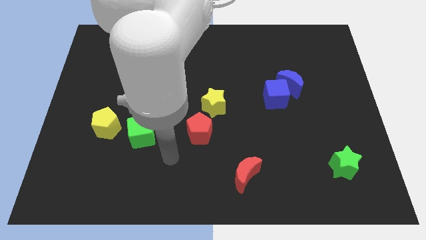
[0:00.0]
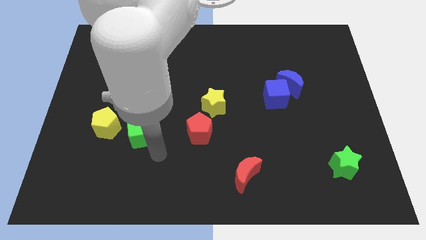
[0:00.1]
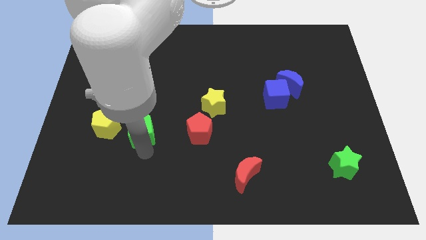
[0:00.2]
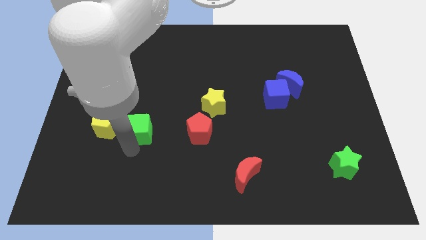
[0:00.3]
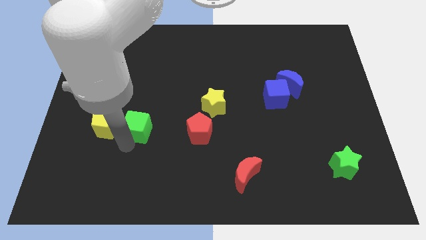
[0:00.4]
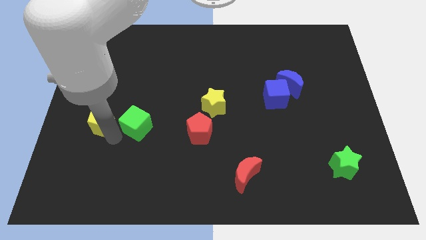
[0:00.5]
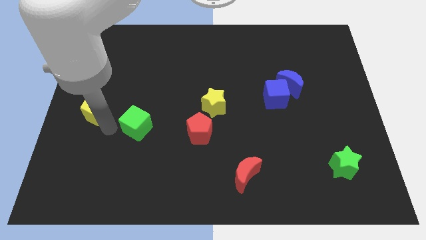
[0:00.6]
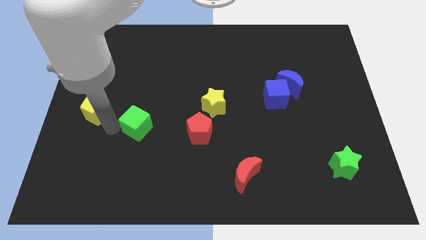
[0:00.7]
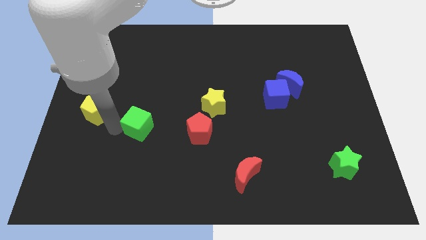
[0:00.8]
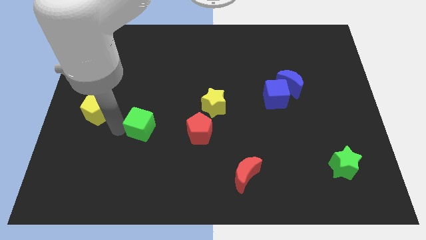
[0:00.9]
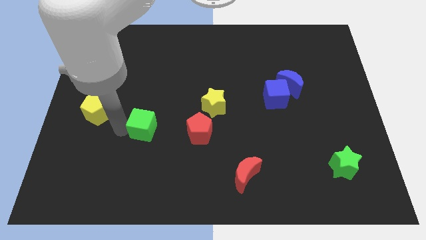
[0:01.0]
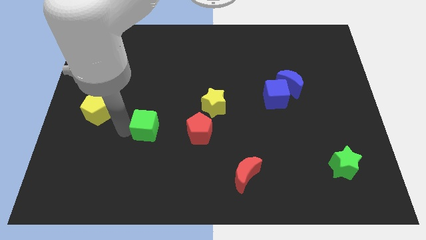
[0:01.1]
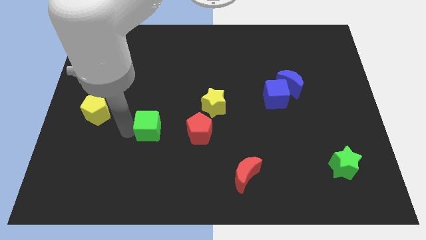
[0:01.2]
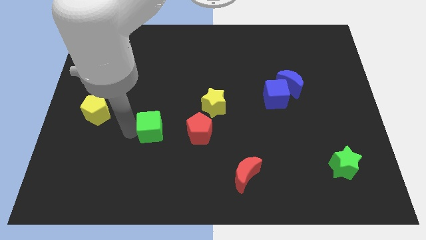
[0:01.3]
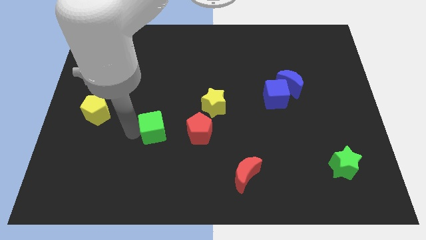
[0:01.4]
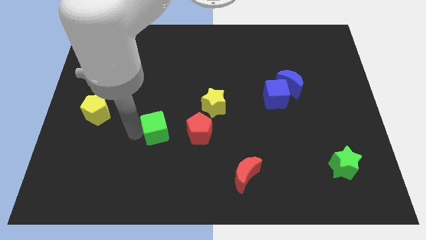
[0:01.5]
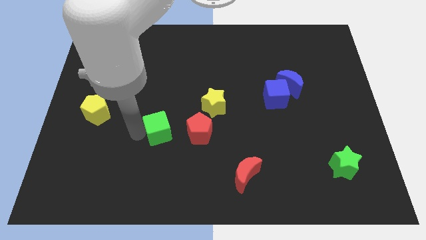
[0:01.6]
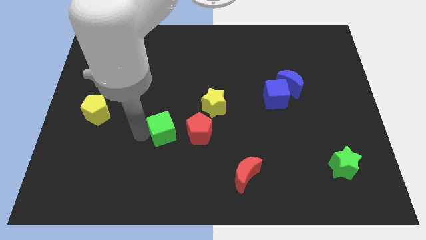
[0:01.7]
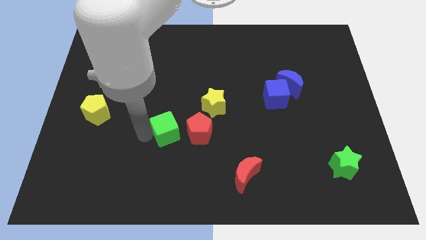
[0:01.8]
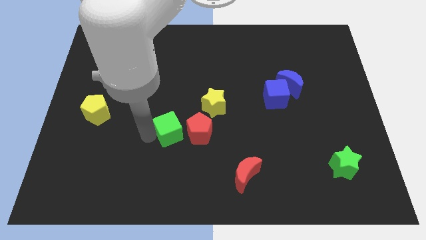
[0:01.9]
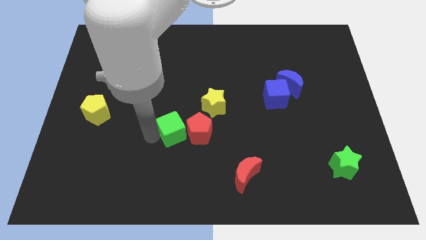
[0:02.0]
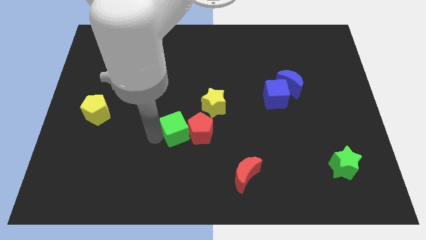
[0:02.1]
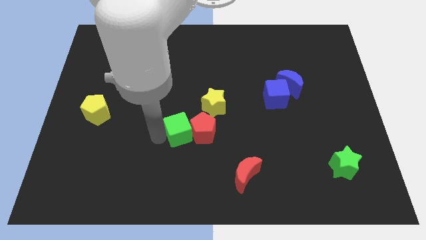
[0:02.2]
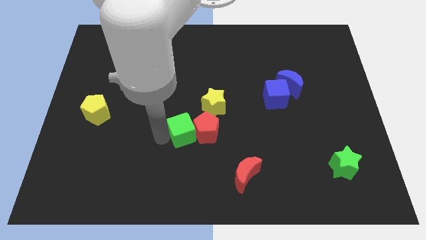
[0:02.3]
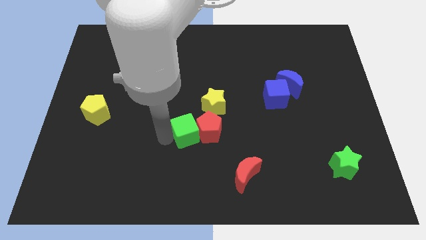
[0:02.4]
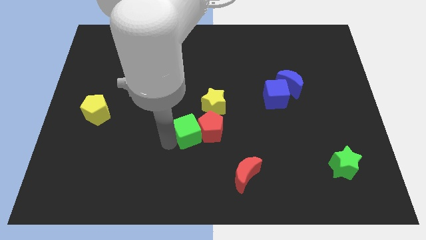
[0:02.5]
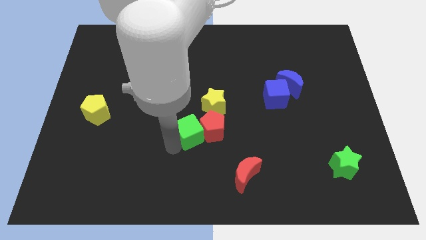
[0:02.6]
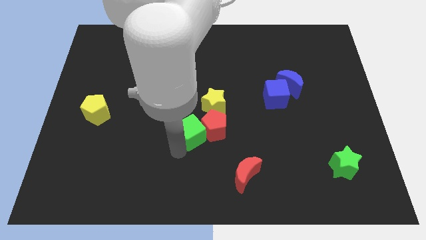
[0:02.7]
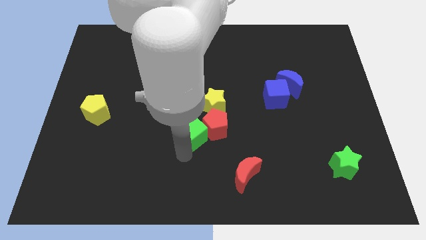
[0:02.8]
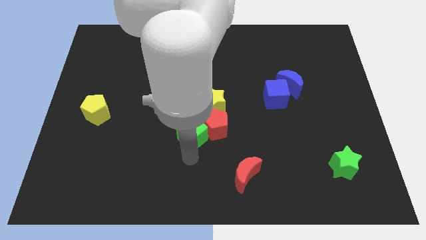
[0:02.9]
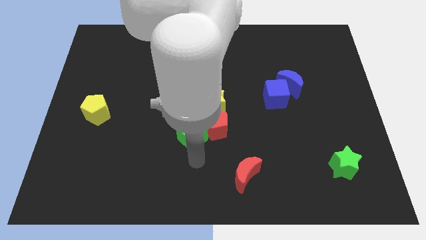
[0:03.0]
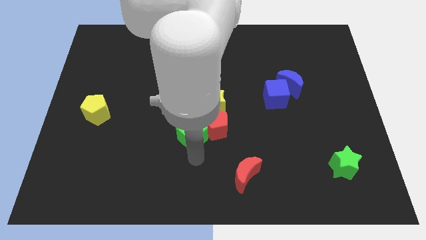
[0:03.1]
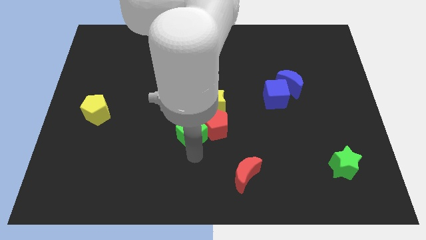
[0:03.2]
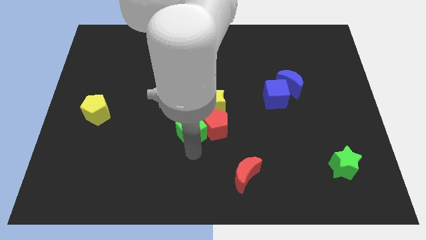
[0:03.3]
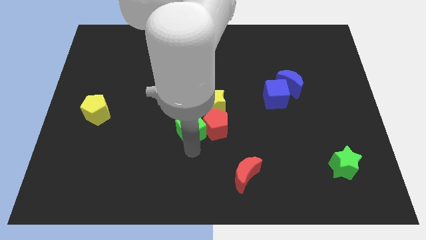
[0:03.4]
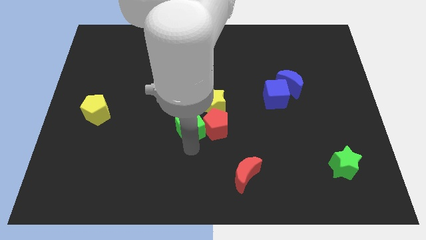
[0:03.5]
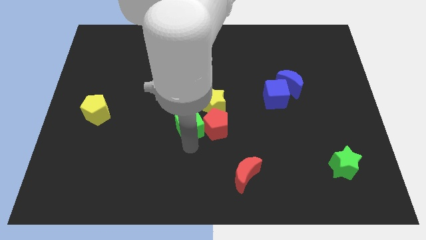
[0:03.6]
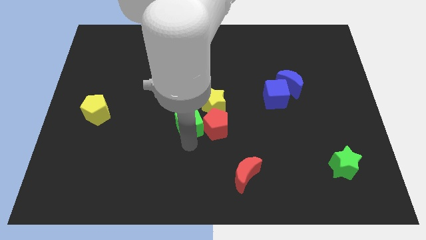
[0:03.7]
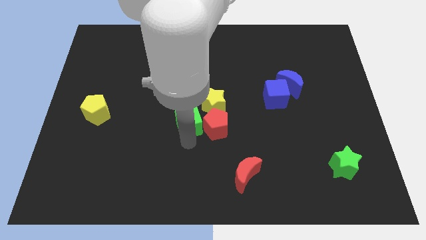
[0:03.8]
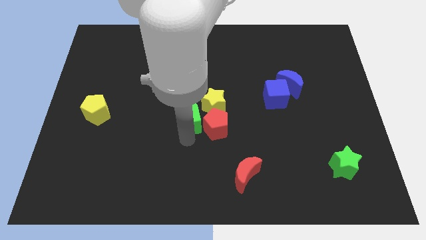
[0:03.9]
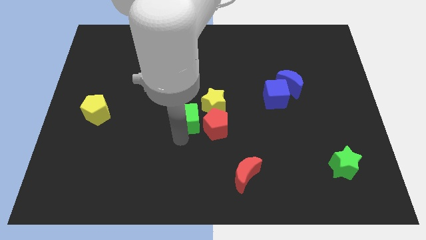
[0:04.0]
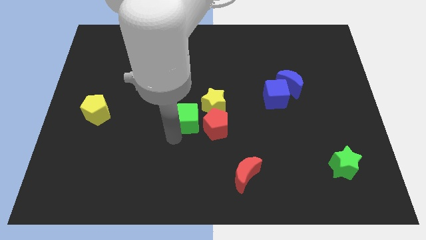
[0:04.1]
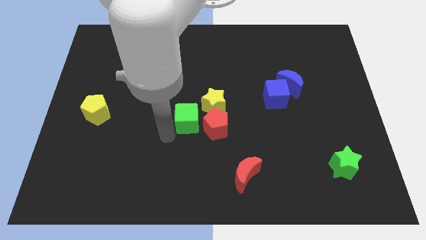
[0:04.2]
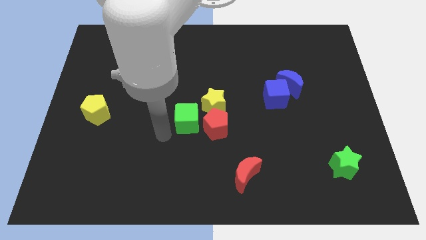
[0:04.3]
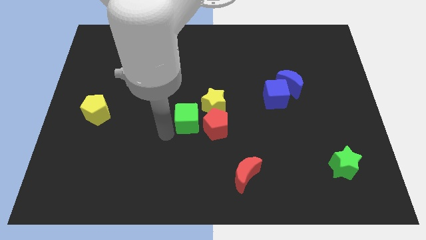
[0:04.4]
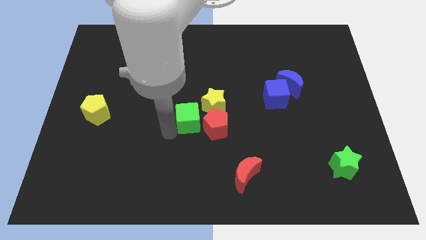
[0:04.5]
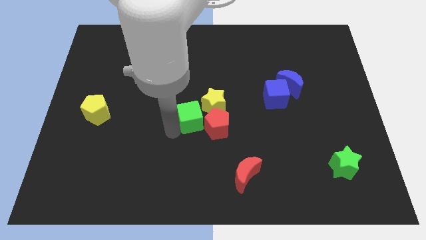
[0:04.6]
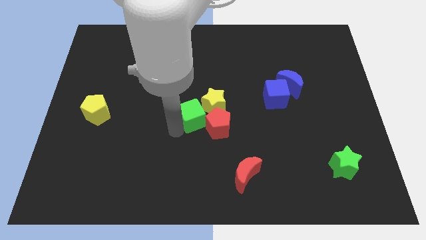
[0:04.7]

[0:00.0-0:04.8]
slide the green cube next to the yellow star

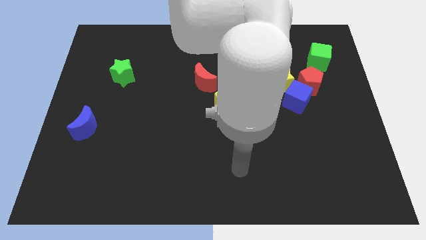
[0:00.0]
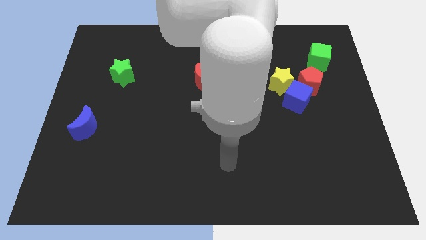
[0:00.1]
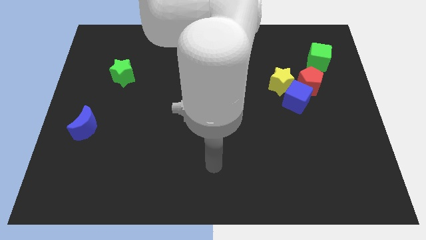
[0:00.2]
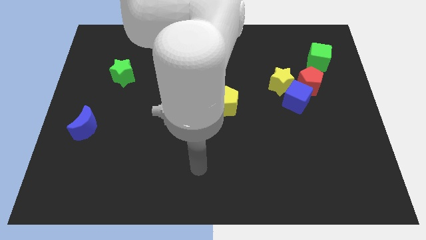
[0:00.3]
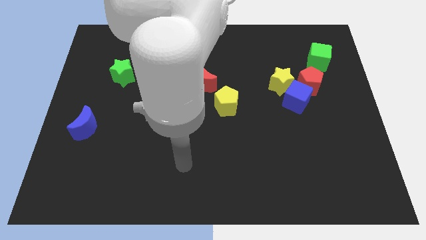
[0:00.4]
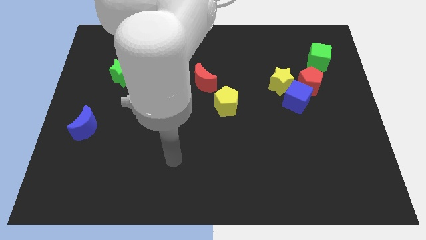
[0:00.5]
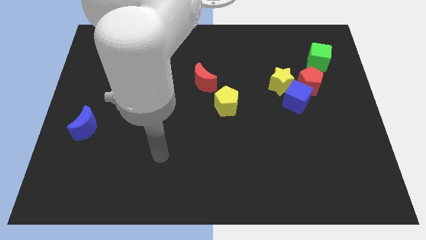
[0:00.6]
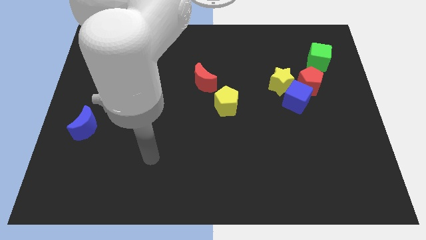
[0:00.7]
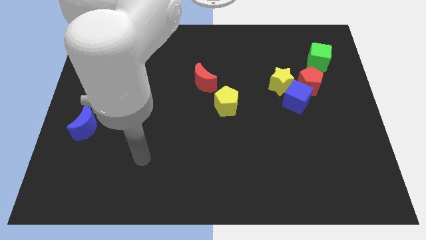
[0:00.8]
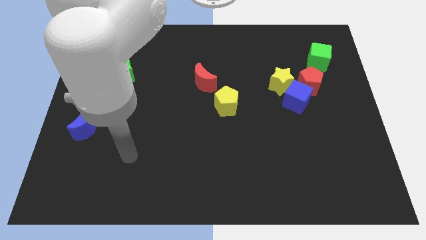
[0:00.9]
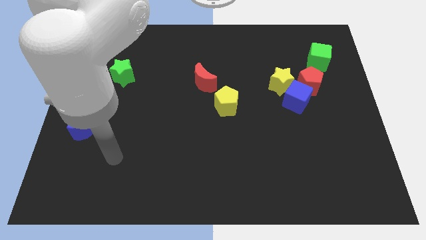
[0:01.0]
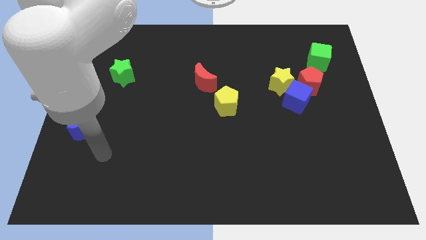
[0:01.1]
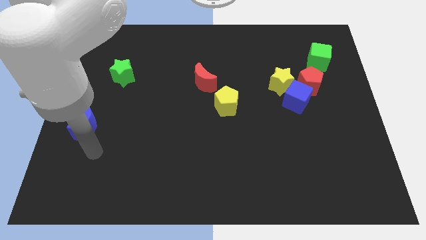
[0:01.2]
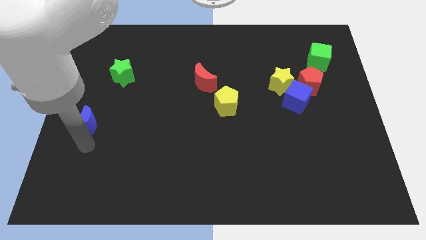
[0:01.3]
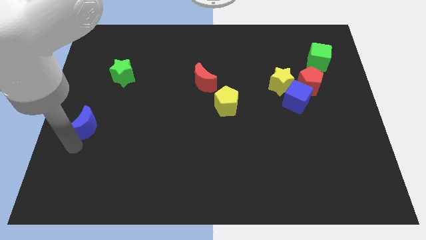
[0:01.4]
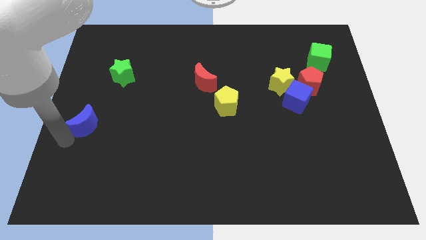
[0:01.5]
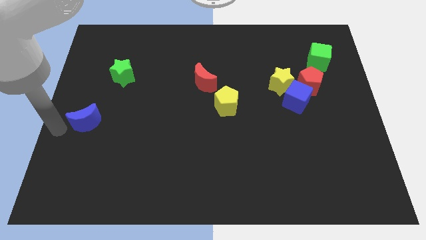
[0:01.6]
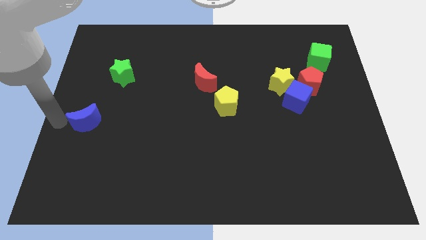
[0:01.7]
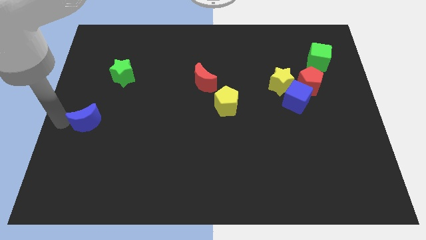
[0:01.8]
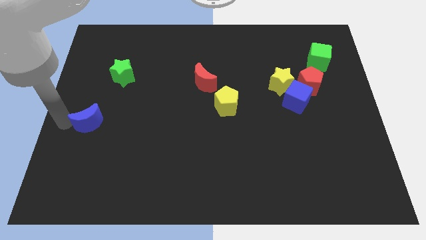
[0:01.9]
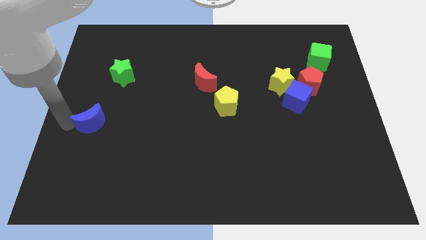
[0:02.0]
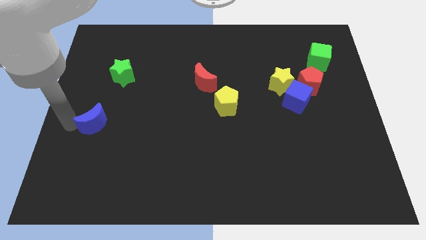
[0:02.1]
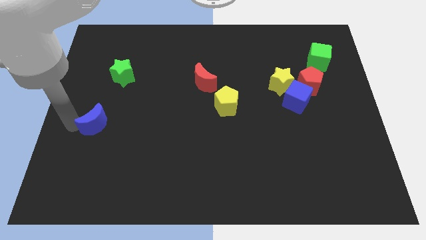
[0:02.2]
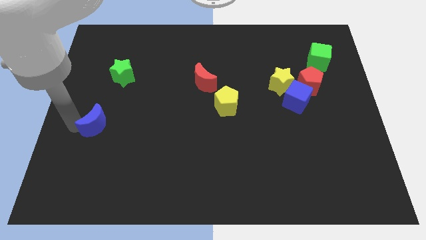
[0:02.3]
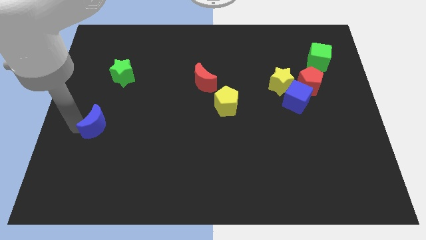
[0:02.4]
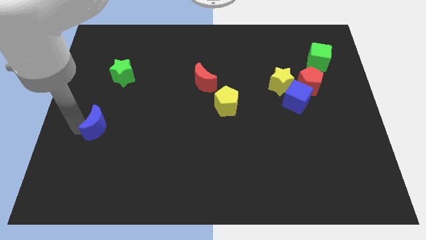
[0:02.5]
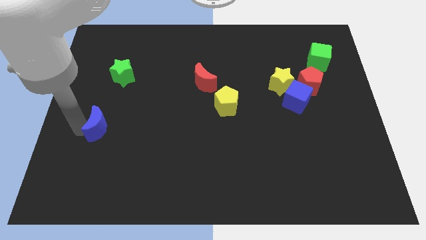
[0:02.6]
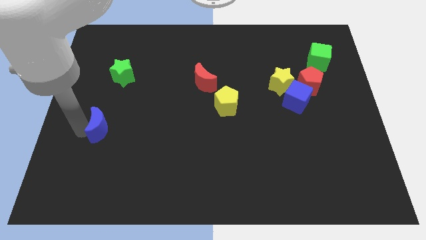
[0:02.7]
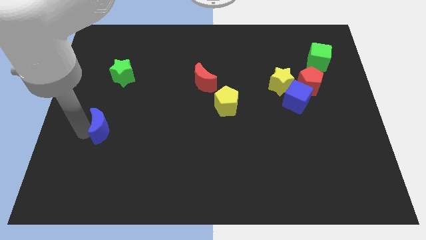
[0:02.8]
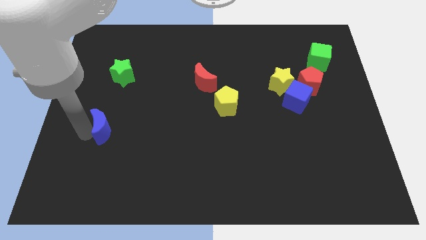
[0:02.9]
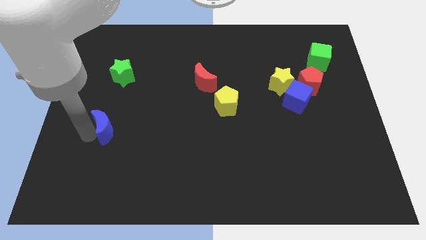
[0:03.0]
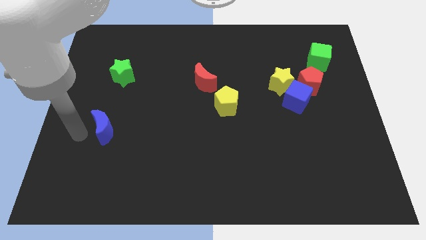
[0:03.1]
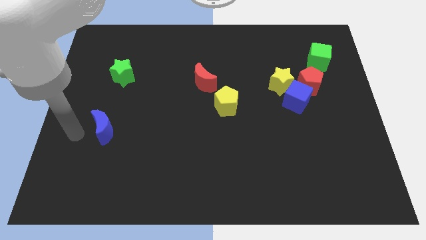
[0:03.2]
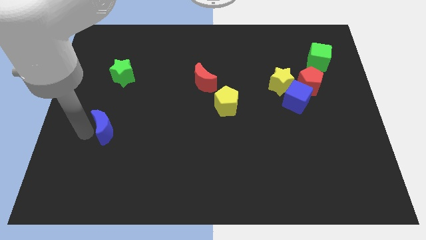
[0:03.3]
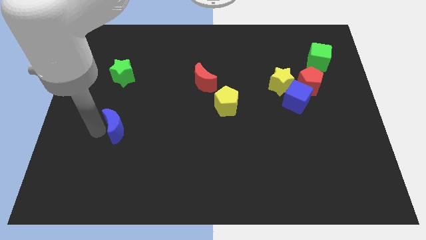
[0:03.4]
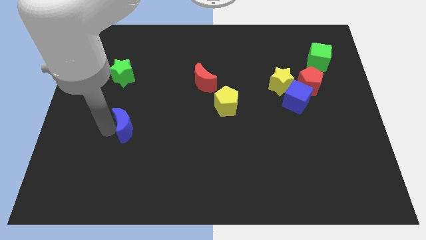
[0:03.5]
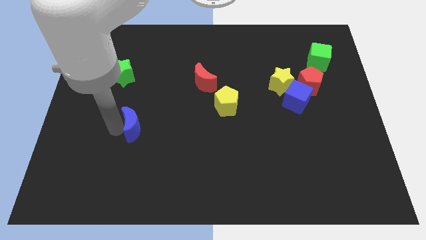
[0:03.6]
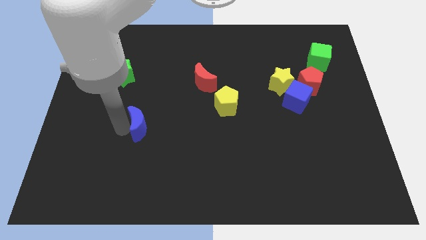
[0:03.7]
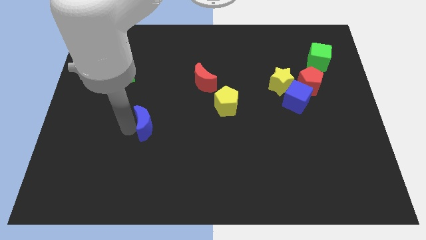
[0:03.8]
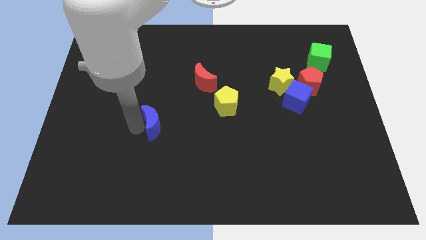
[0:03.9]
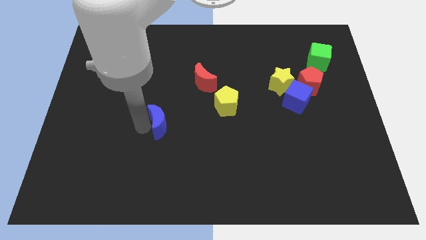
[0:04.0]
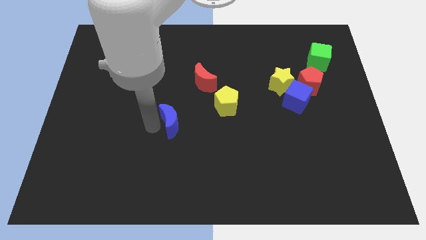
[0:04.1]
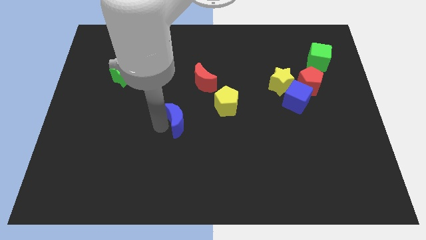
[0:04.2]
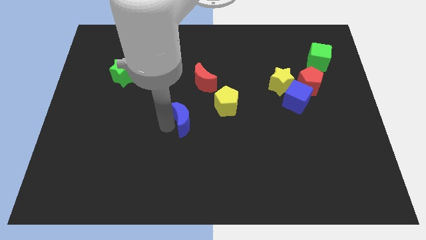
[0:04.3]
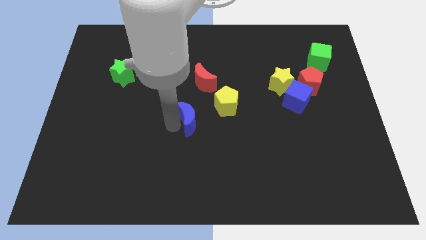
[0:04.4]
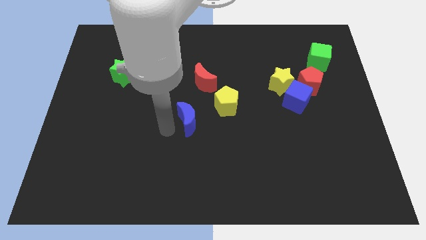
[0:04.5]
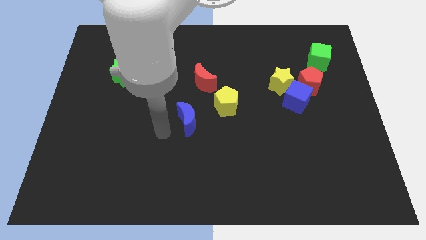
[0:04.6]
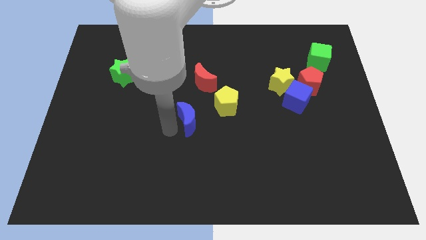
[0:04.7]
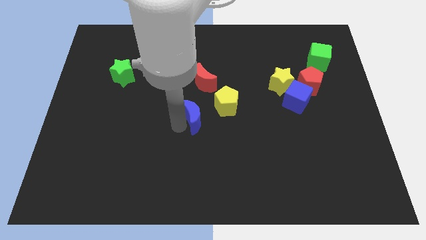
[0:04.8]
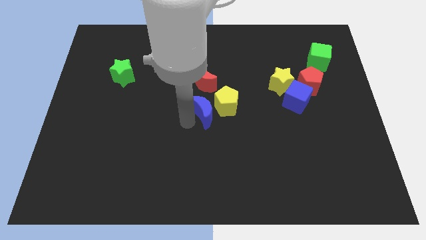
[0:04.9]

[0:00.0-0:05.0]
put the blue moon towards the yellow pentagon
